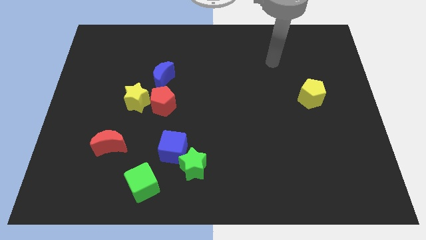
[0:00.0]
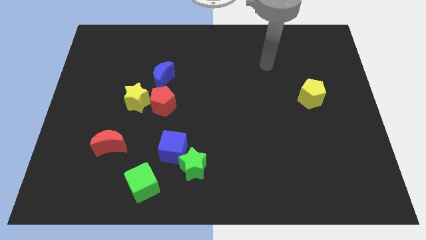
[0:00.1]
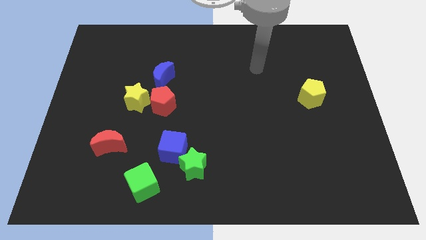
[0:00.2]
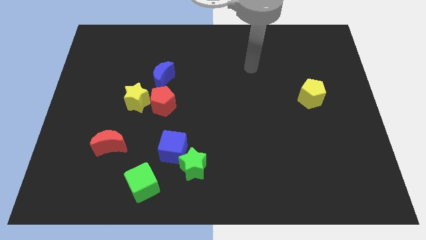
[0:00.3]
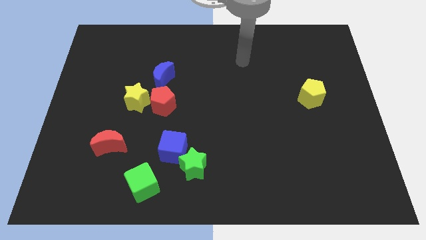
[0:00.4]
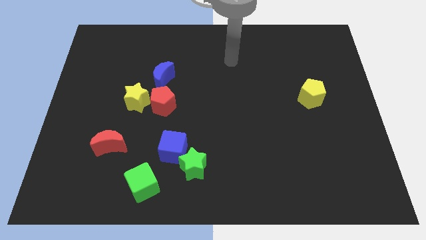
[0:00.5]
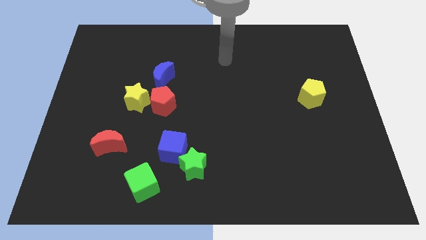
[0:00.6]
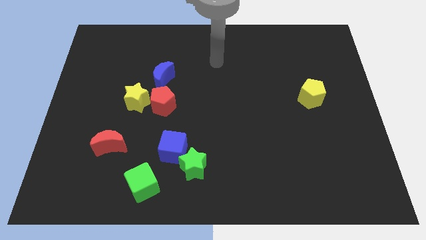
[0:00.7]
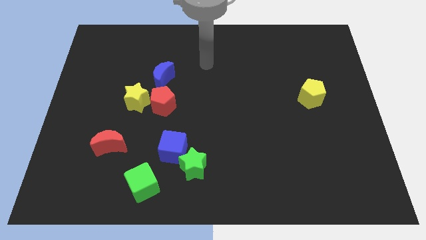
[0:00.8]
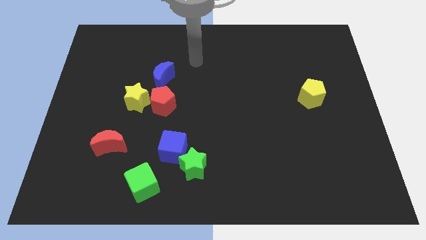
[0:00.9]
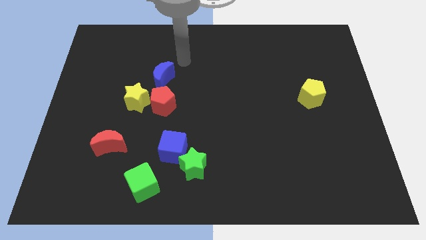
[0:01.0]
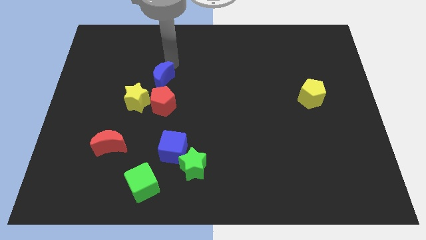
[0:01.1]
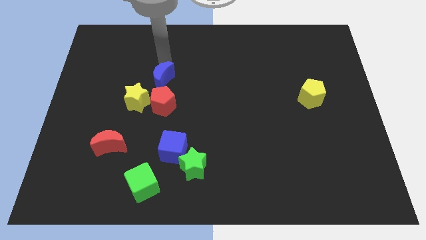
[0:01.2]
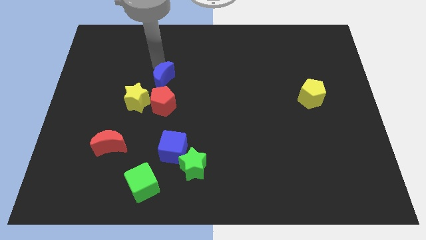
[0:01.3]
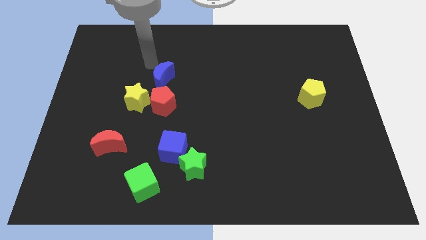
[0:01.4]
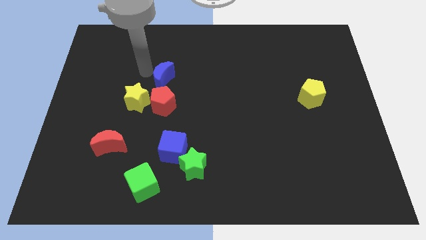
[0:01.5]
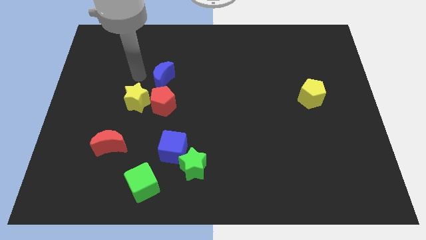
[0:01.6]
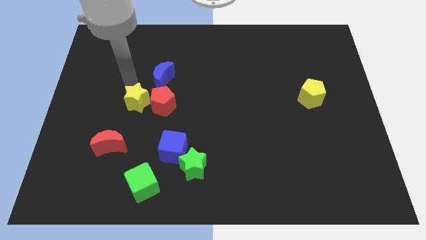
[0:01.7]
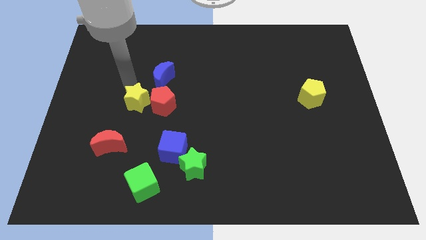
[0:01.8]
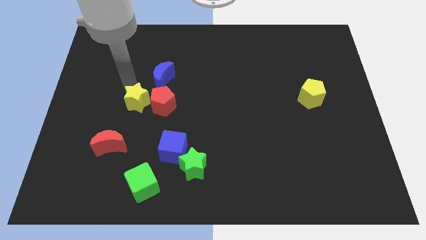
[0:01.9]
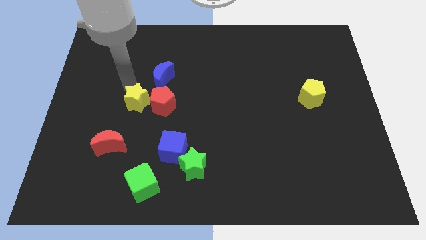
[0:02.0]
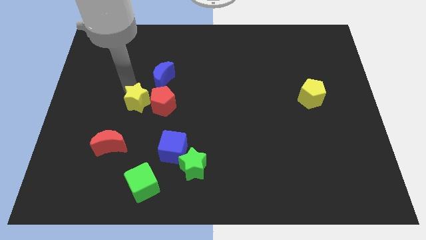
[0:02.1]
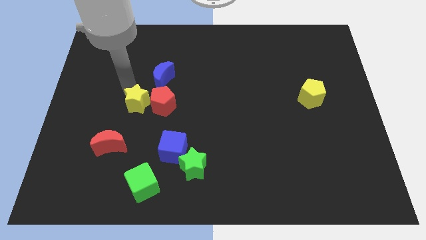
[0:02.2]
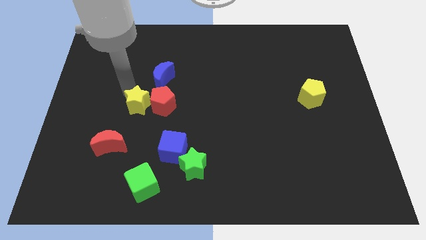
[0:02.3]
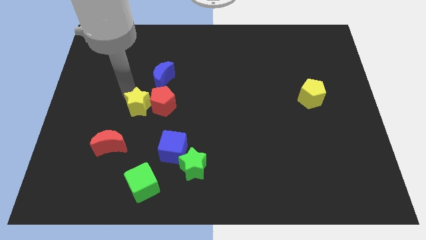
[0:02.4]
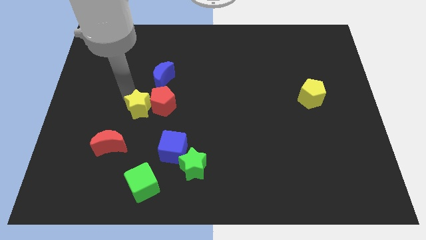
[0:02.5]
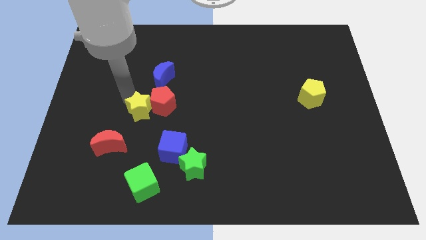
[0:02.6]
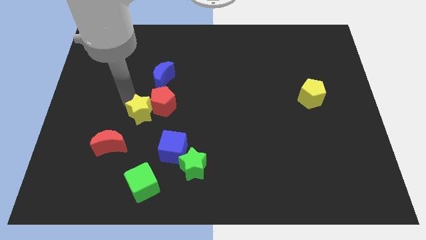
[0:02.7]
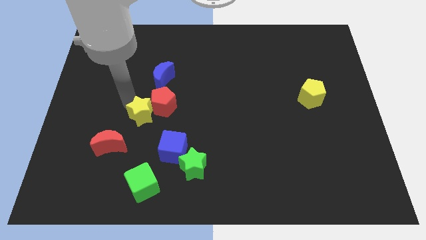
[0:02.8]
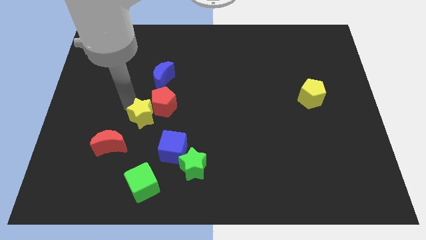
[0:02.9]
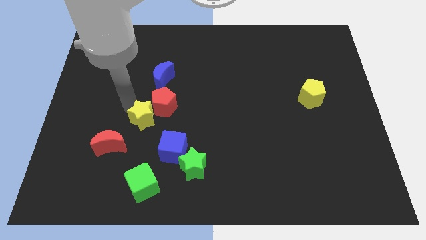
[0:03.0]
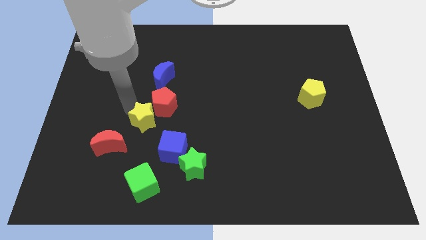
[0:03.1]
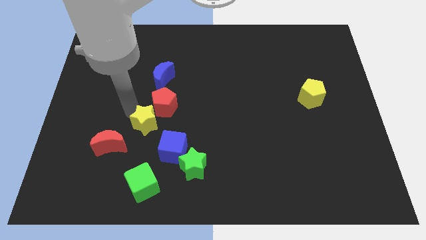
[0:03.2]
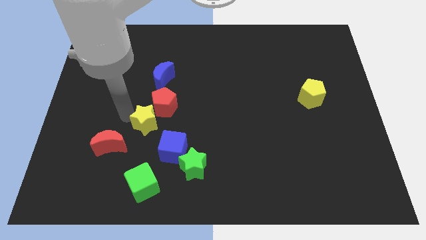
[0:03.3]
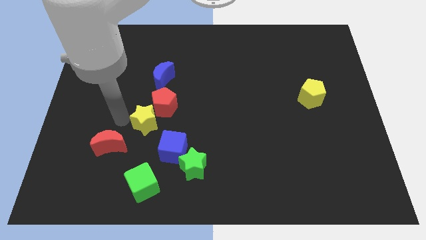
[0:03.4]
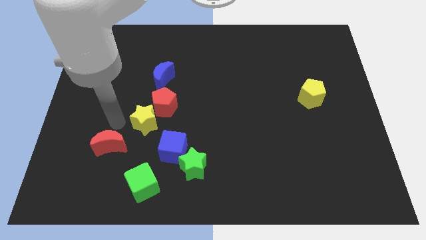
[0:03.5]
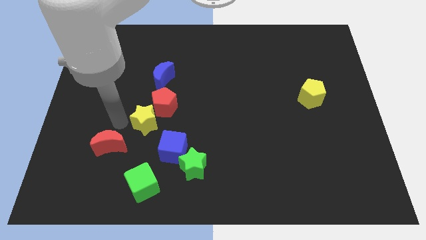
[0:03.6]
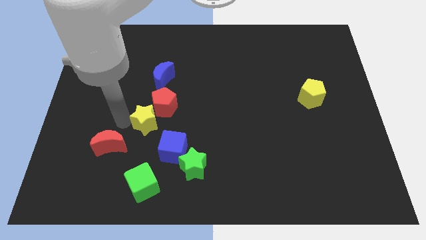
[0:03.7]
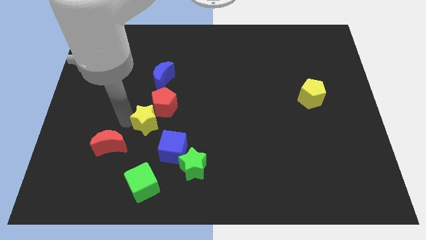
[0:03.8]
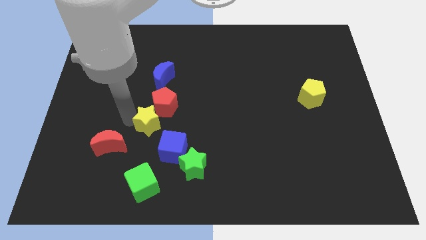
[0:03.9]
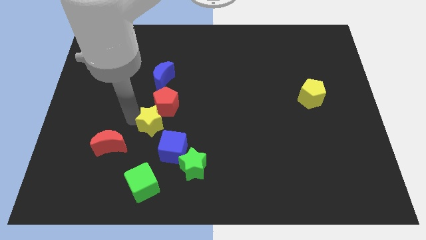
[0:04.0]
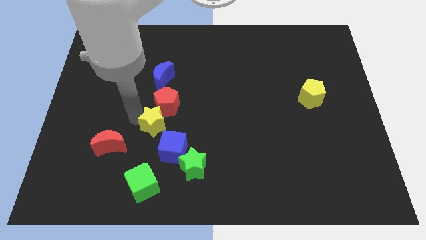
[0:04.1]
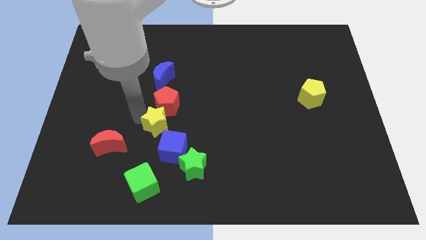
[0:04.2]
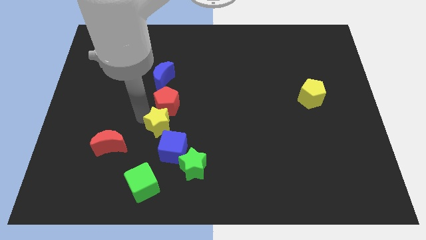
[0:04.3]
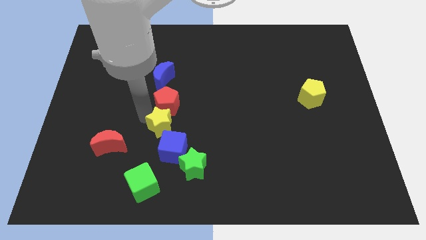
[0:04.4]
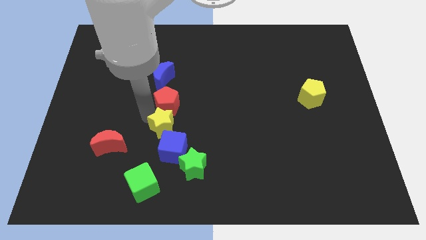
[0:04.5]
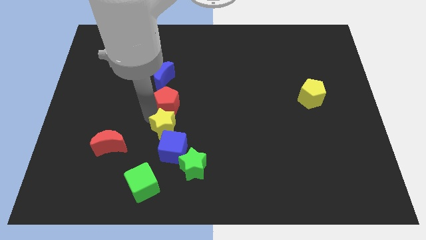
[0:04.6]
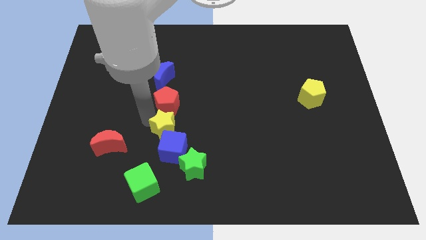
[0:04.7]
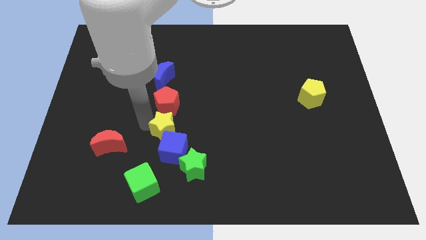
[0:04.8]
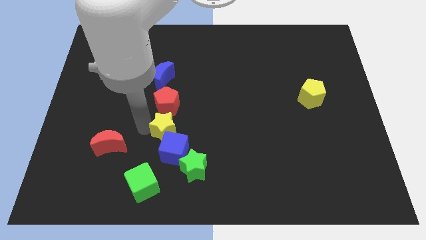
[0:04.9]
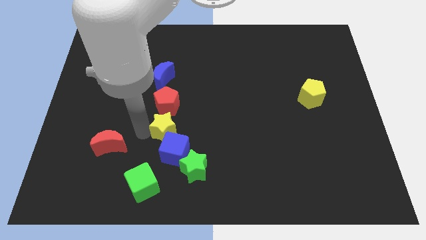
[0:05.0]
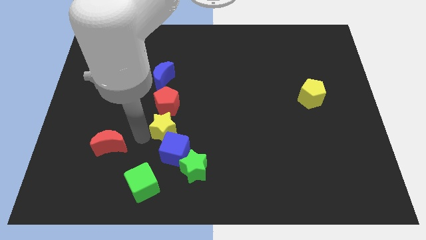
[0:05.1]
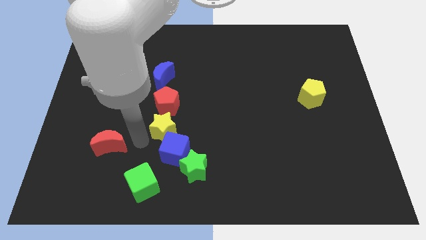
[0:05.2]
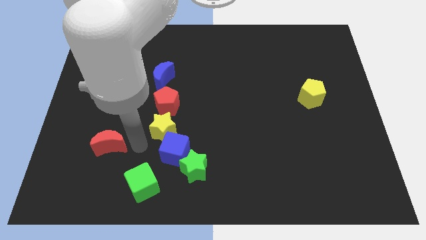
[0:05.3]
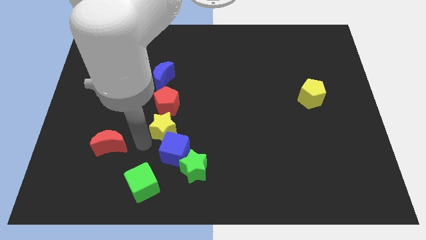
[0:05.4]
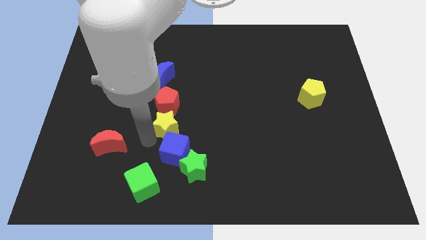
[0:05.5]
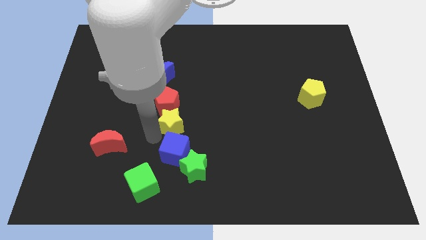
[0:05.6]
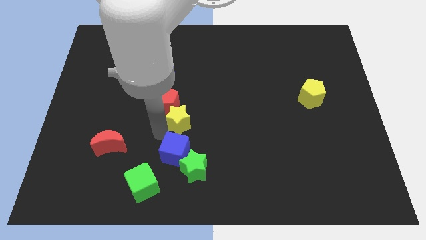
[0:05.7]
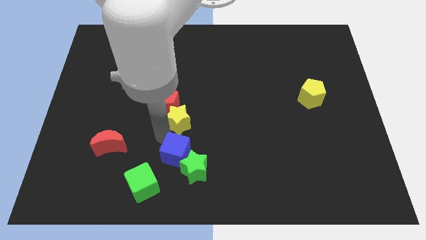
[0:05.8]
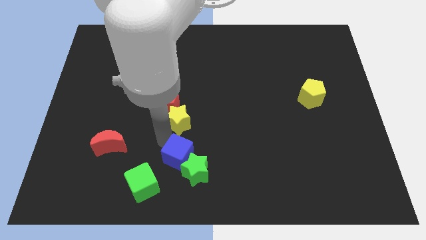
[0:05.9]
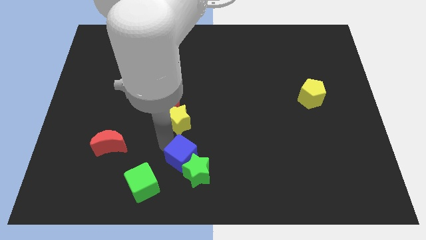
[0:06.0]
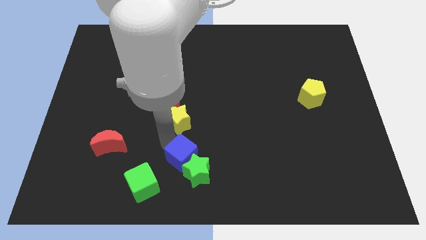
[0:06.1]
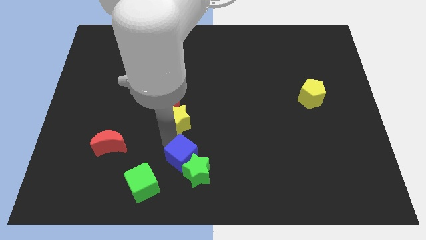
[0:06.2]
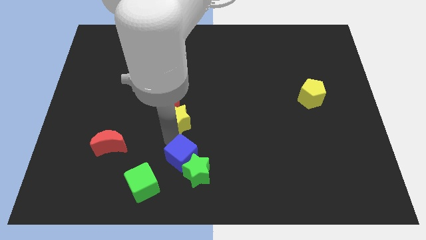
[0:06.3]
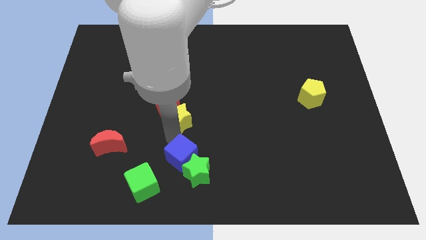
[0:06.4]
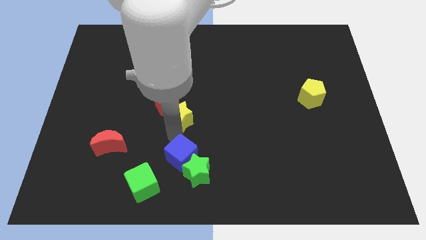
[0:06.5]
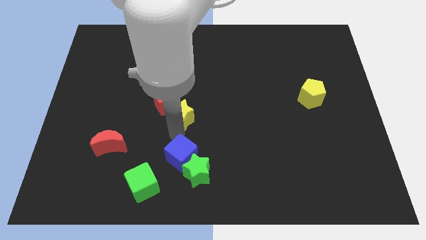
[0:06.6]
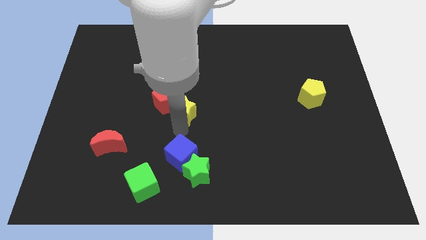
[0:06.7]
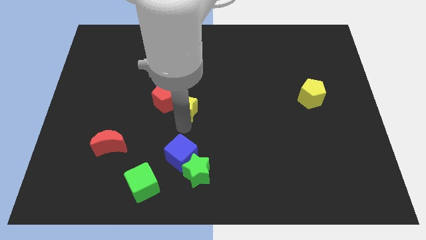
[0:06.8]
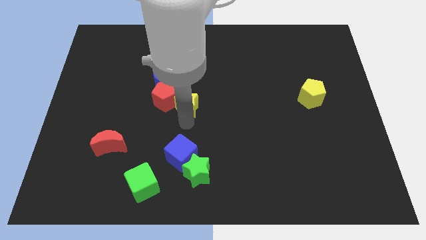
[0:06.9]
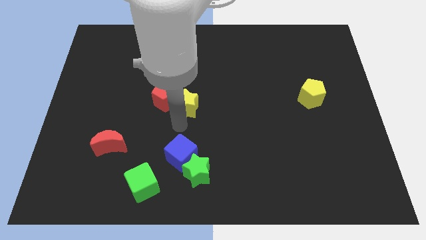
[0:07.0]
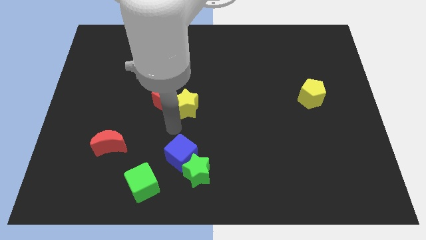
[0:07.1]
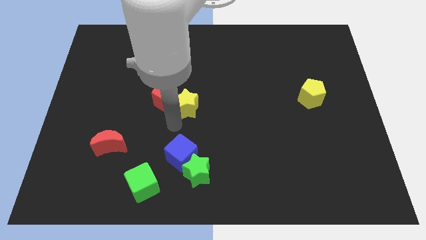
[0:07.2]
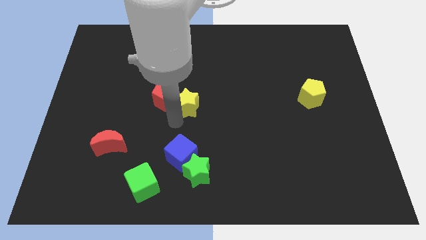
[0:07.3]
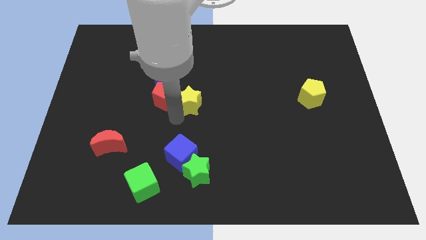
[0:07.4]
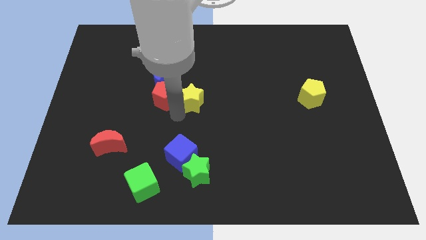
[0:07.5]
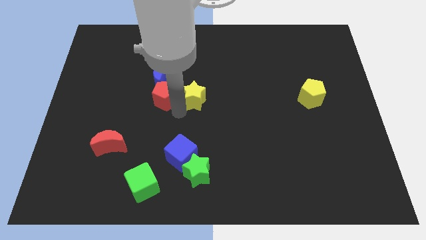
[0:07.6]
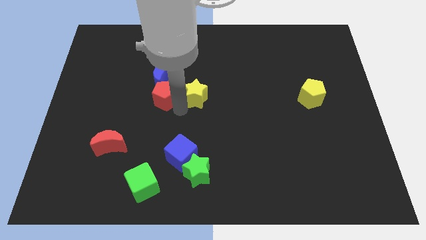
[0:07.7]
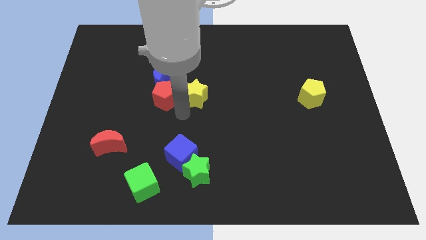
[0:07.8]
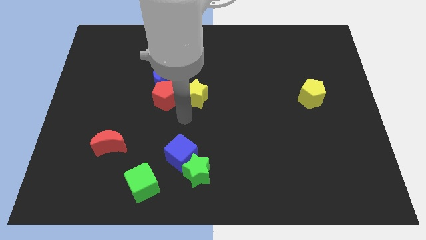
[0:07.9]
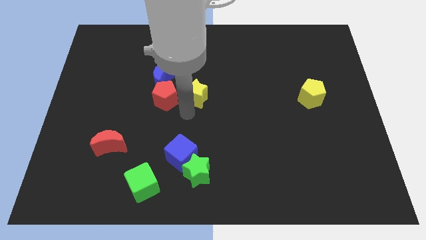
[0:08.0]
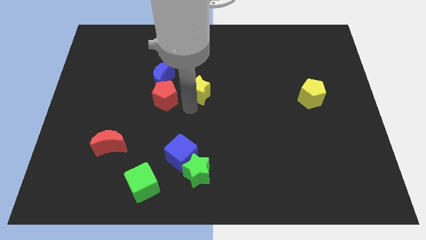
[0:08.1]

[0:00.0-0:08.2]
slide the yellow star right of the blue moon
